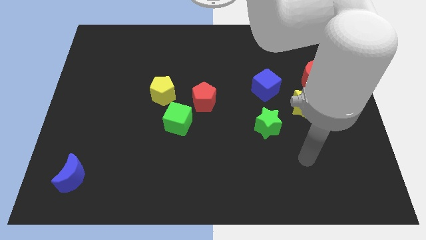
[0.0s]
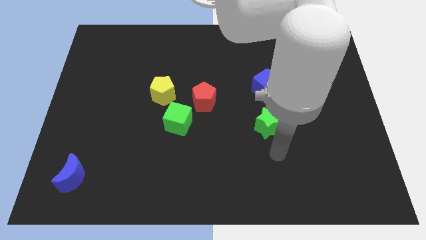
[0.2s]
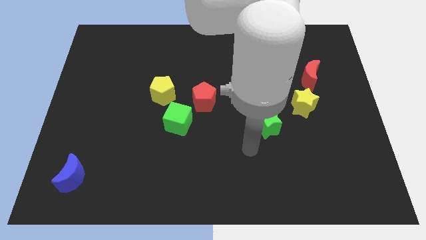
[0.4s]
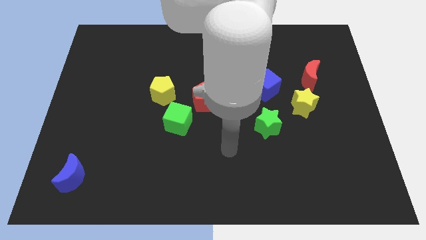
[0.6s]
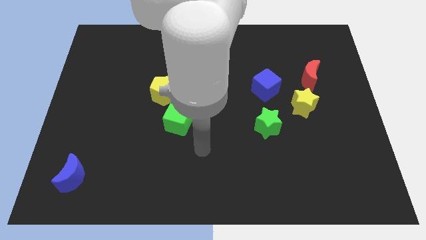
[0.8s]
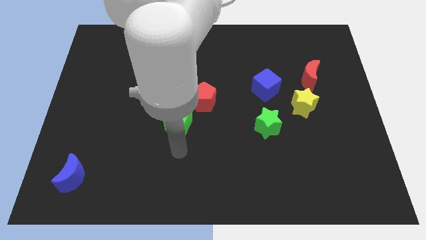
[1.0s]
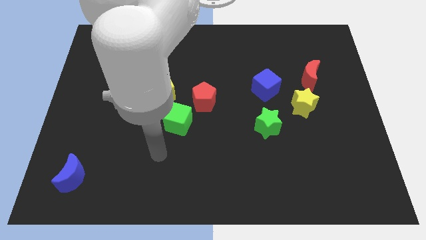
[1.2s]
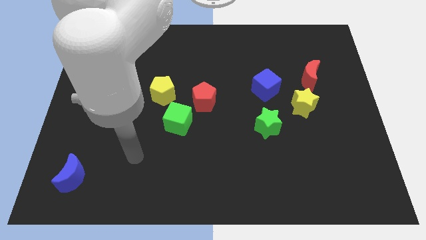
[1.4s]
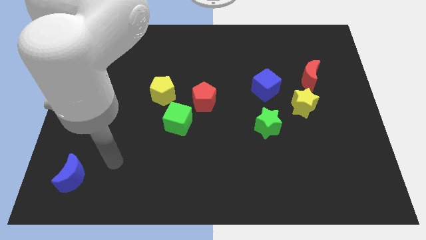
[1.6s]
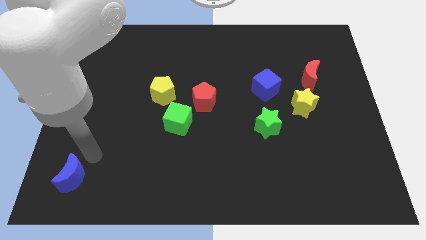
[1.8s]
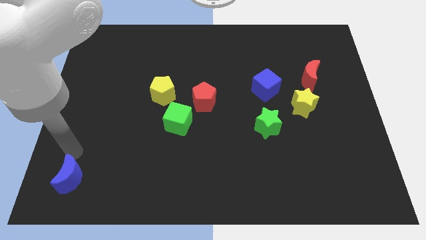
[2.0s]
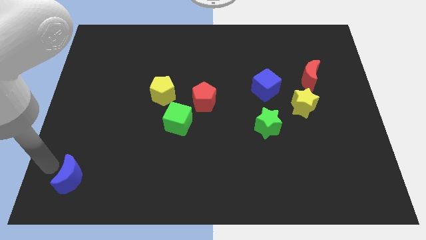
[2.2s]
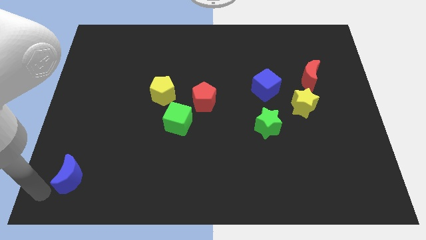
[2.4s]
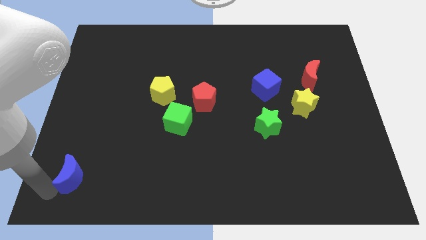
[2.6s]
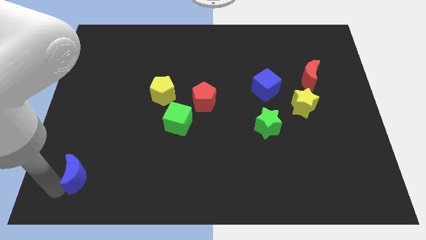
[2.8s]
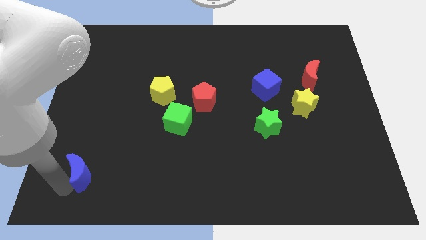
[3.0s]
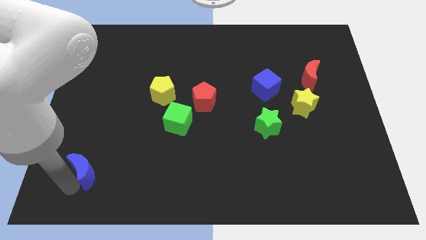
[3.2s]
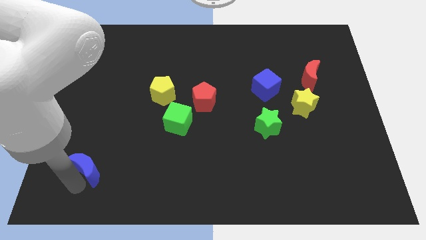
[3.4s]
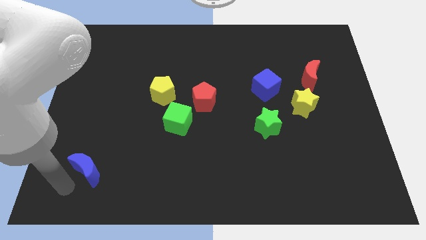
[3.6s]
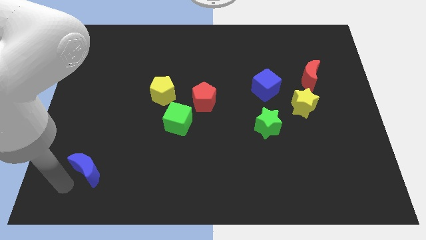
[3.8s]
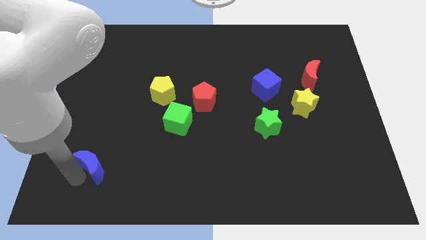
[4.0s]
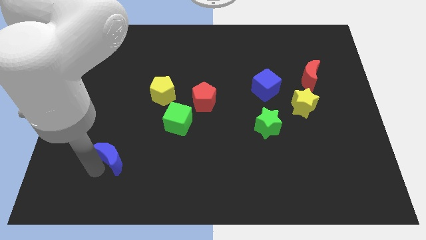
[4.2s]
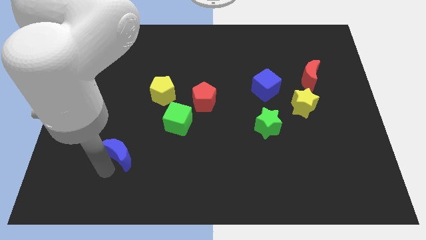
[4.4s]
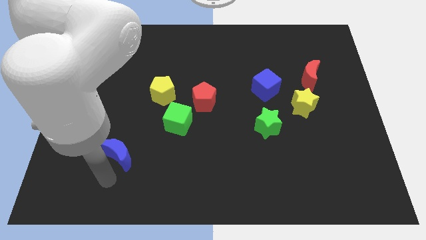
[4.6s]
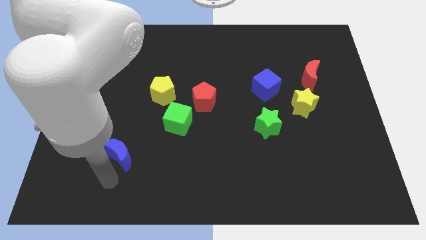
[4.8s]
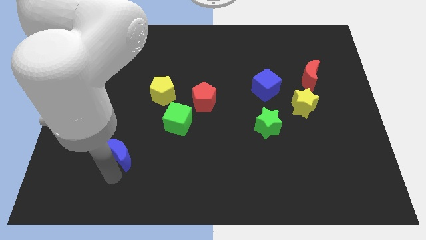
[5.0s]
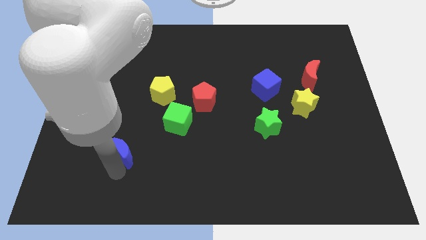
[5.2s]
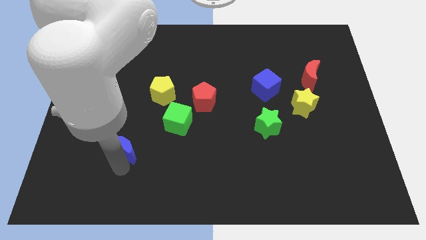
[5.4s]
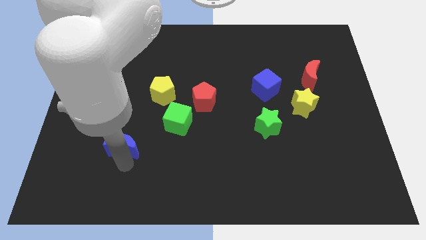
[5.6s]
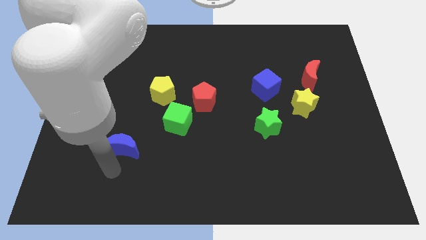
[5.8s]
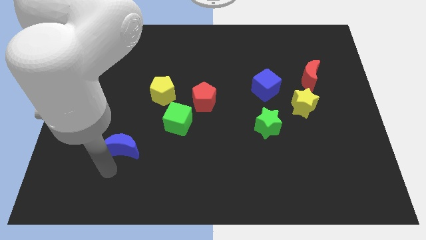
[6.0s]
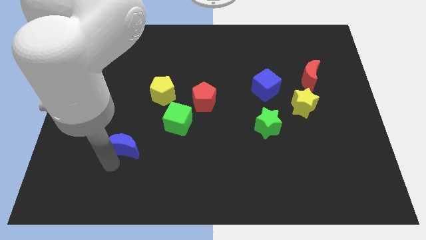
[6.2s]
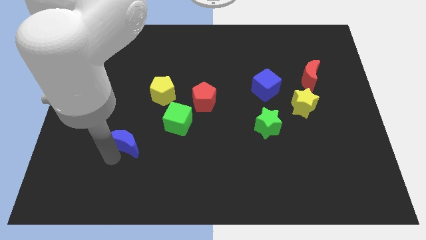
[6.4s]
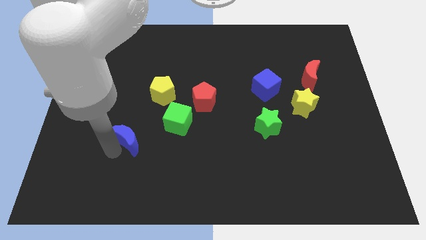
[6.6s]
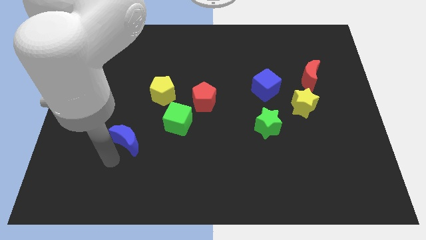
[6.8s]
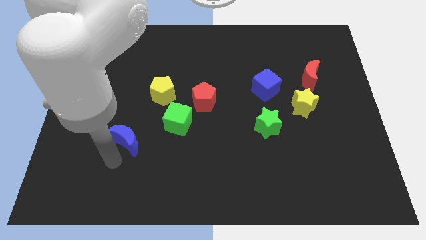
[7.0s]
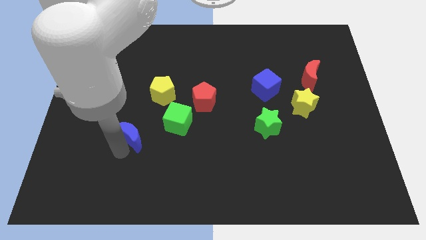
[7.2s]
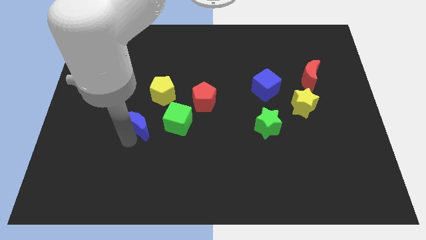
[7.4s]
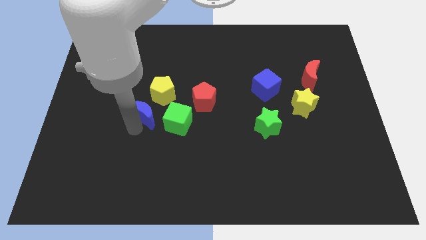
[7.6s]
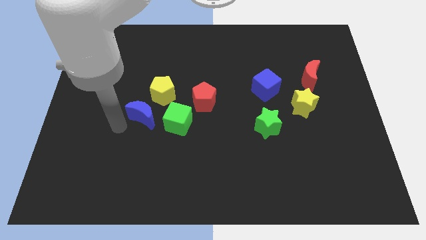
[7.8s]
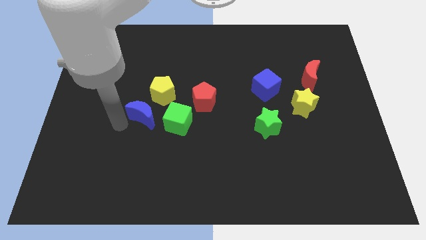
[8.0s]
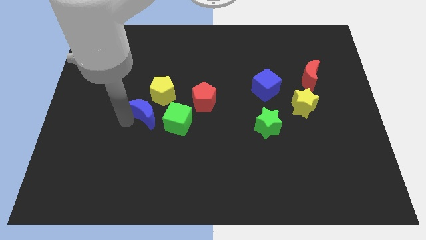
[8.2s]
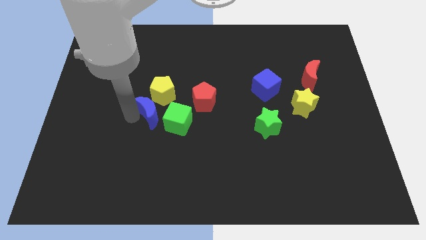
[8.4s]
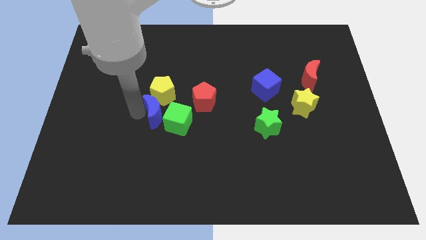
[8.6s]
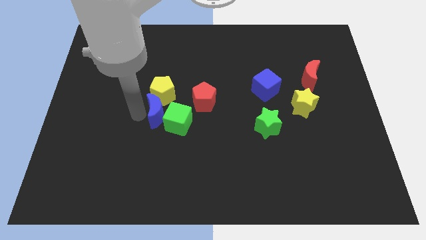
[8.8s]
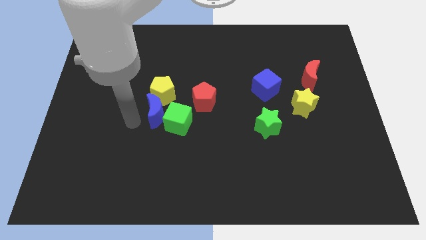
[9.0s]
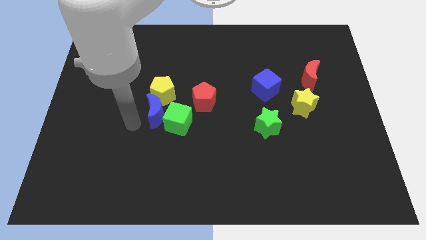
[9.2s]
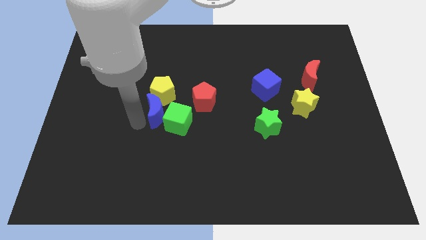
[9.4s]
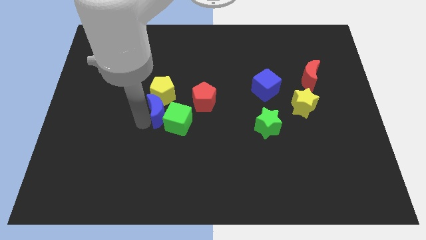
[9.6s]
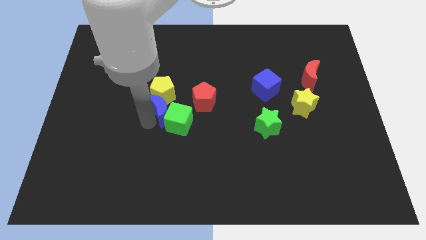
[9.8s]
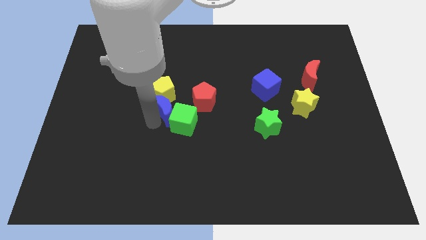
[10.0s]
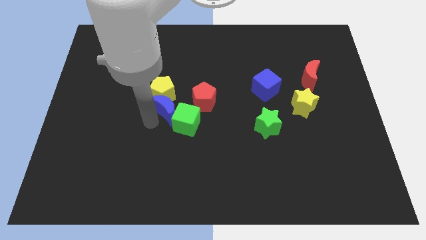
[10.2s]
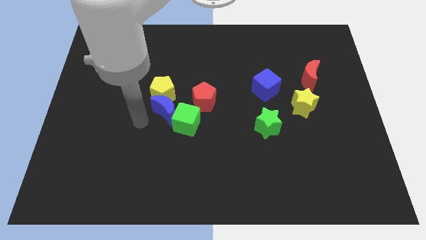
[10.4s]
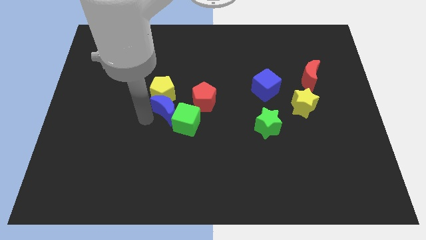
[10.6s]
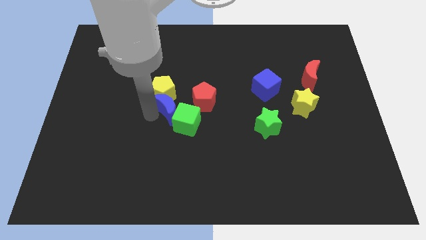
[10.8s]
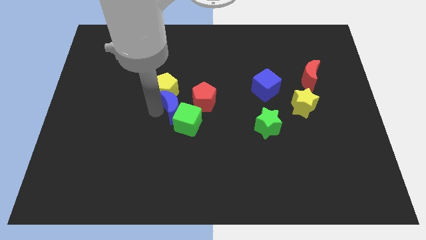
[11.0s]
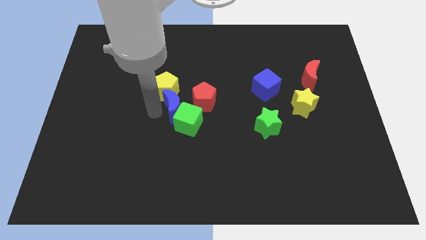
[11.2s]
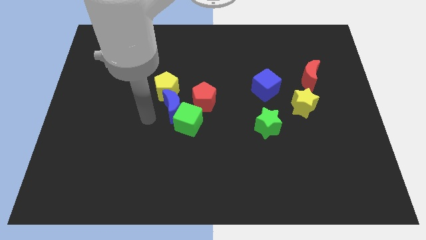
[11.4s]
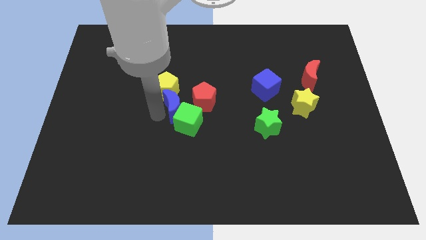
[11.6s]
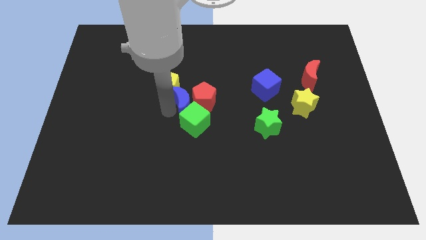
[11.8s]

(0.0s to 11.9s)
slide the blue moon close to the red pentagon

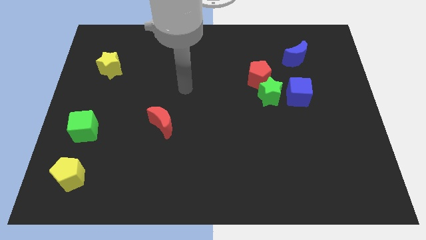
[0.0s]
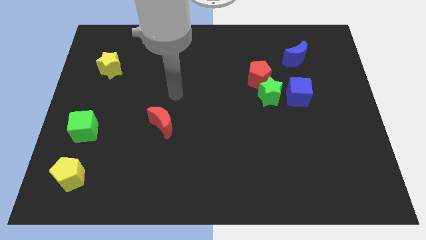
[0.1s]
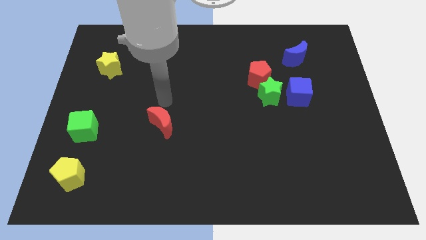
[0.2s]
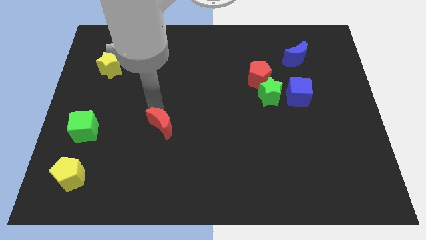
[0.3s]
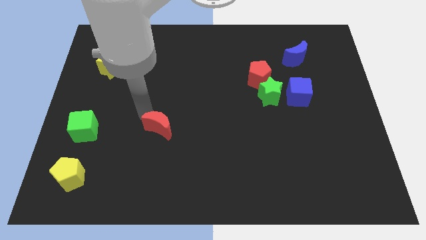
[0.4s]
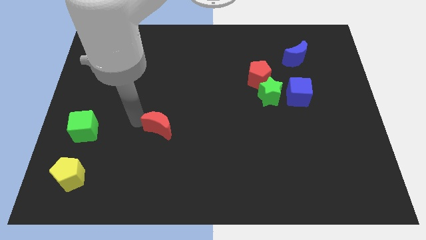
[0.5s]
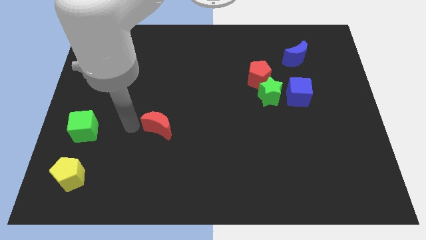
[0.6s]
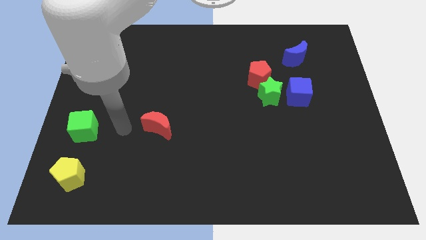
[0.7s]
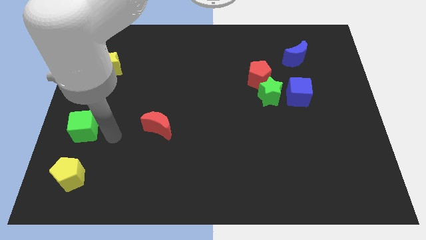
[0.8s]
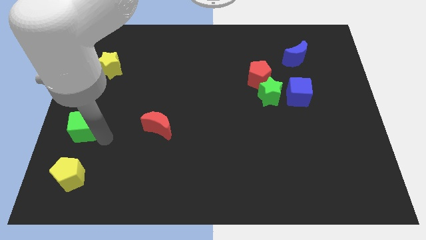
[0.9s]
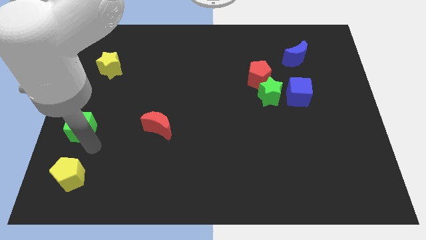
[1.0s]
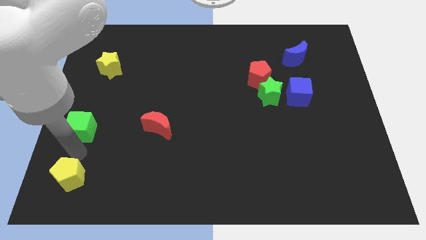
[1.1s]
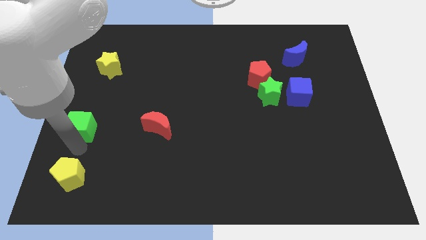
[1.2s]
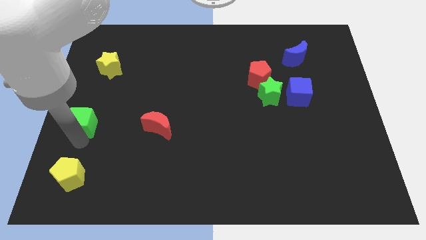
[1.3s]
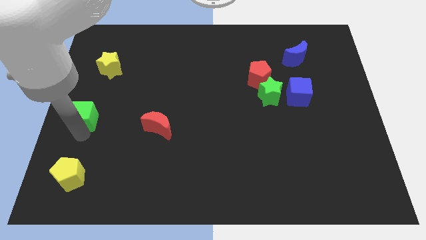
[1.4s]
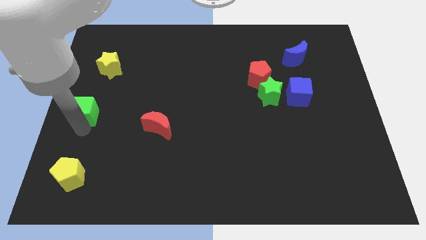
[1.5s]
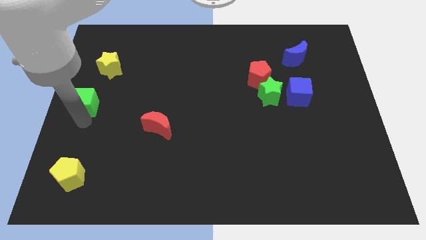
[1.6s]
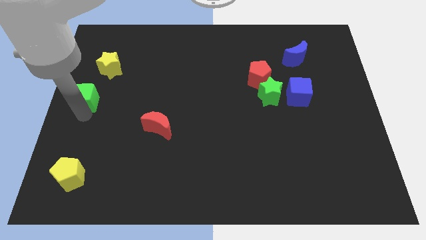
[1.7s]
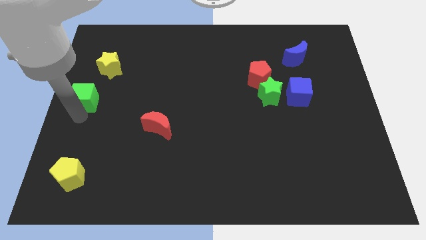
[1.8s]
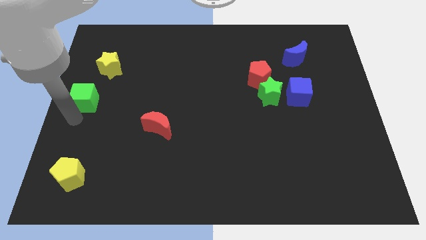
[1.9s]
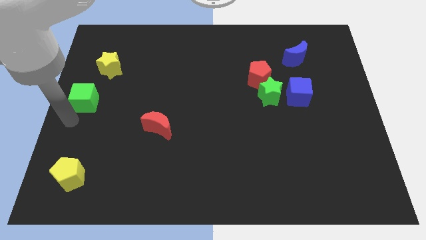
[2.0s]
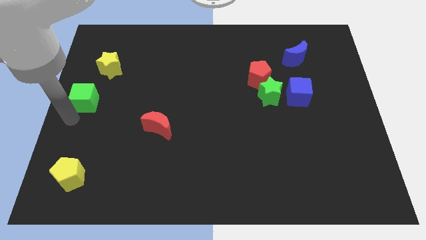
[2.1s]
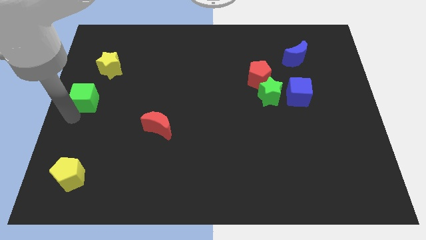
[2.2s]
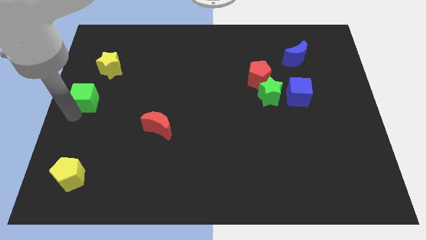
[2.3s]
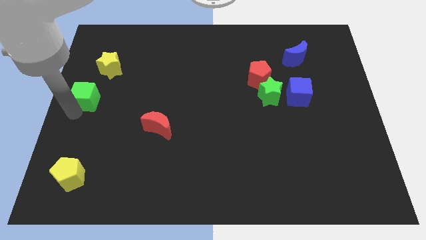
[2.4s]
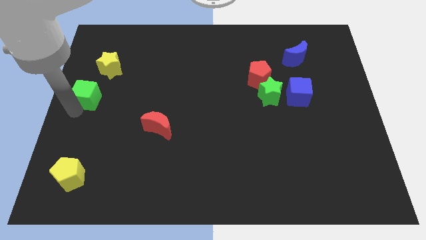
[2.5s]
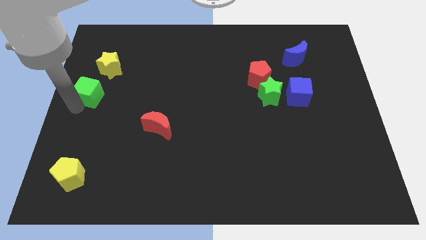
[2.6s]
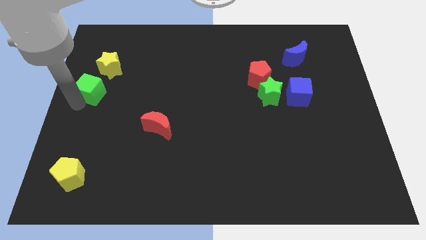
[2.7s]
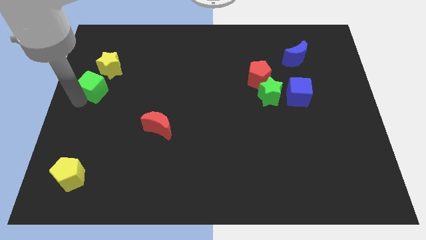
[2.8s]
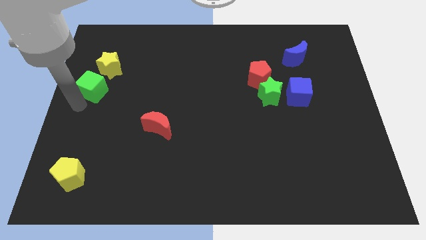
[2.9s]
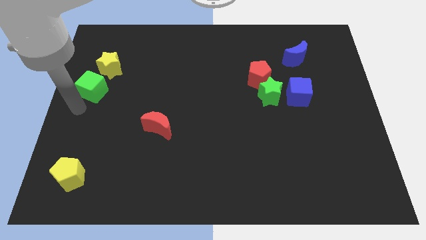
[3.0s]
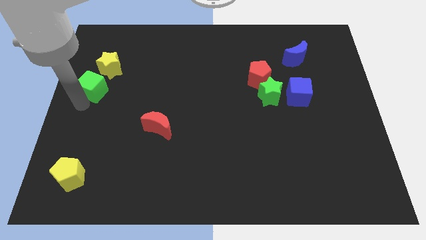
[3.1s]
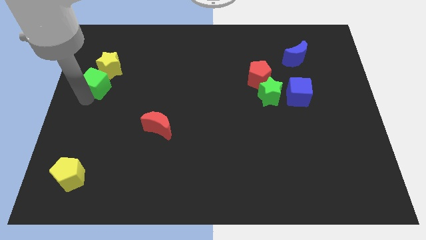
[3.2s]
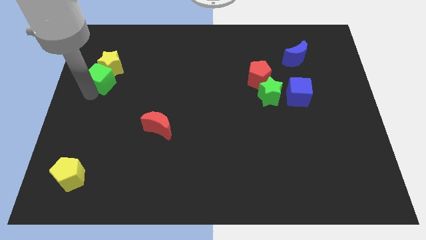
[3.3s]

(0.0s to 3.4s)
put the green cube close to the yellow star
